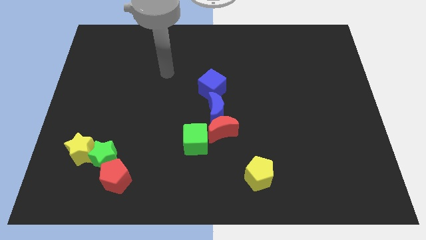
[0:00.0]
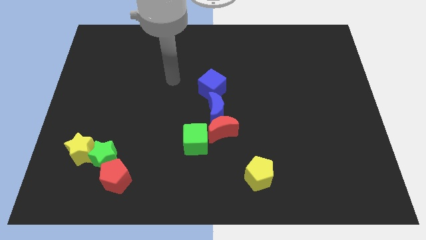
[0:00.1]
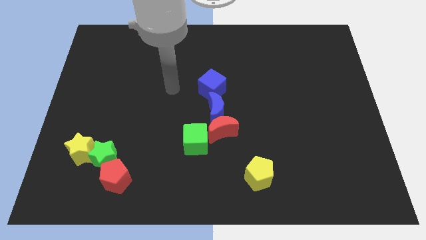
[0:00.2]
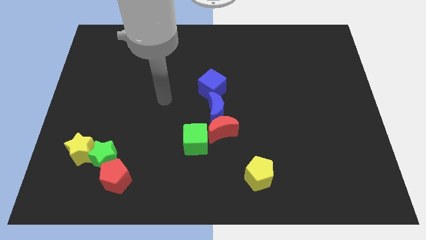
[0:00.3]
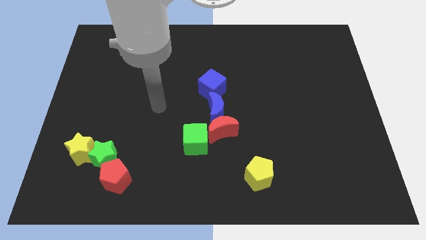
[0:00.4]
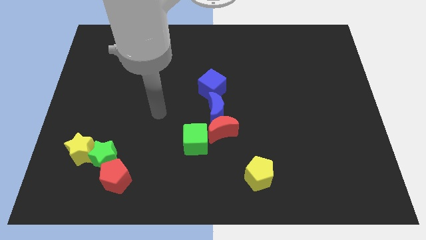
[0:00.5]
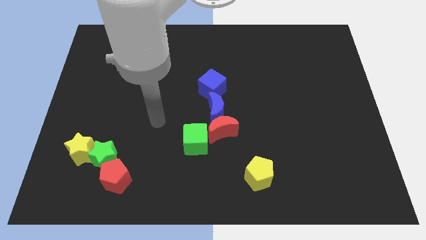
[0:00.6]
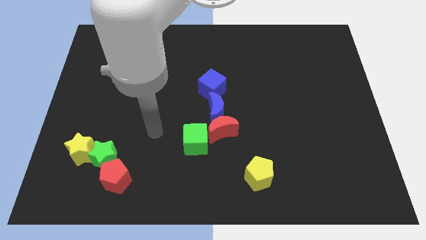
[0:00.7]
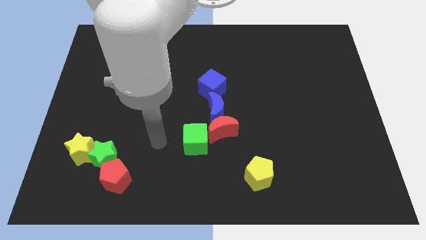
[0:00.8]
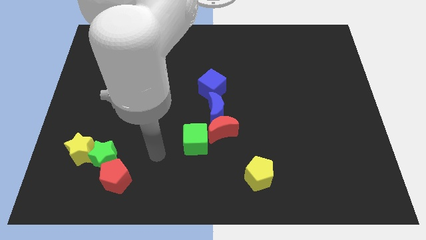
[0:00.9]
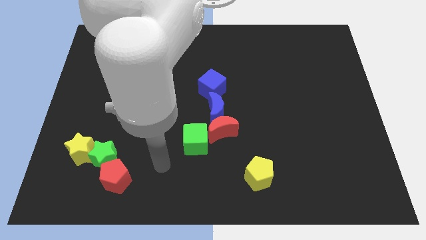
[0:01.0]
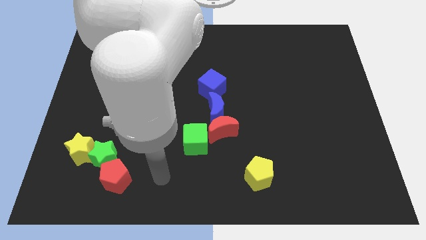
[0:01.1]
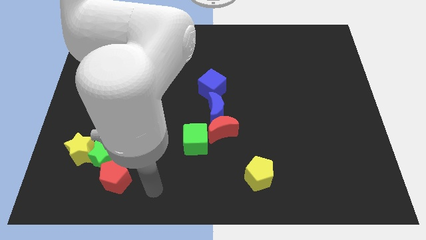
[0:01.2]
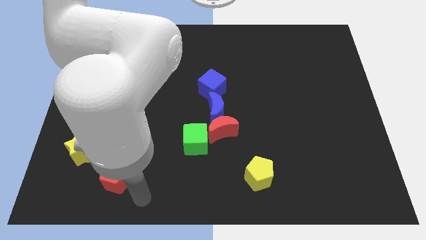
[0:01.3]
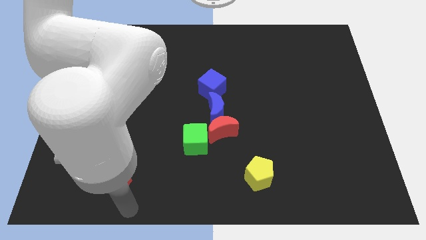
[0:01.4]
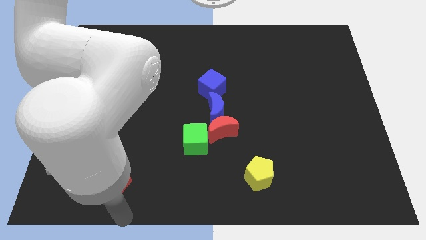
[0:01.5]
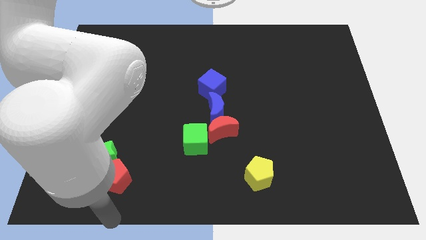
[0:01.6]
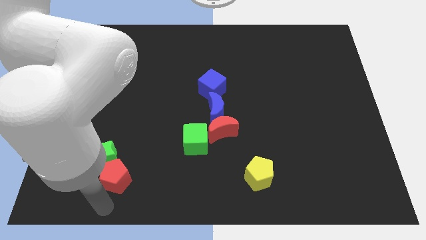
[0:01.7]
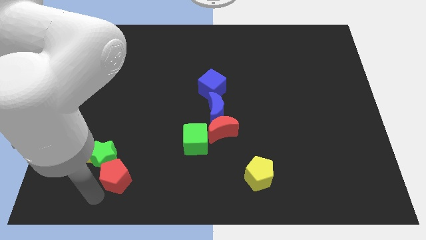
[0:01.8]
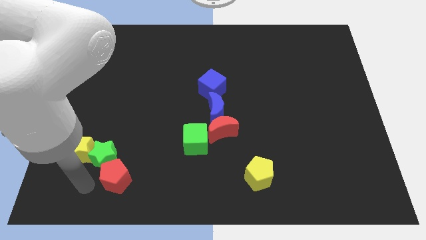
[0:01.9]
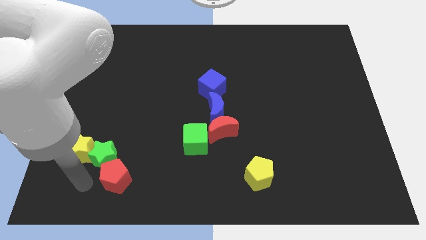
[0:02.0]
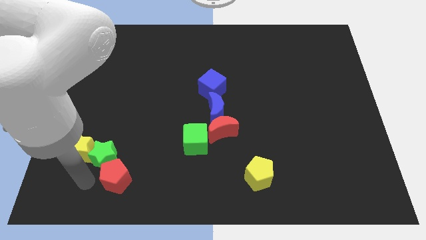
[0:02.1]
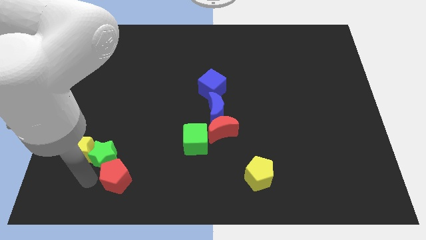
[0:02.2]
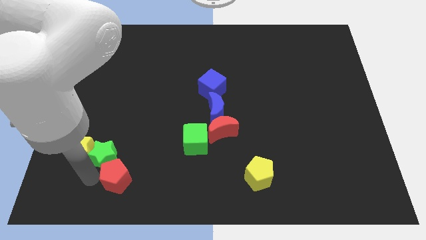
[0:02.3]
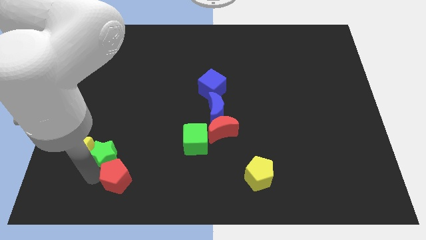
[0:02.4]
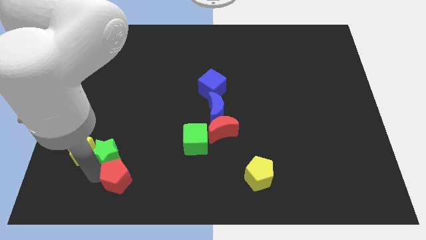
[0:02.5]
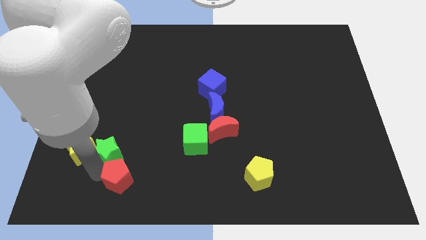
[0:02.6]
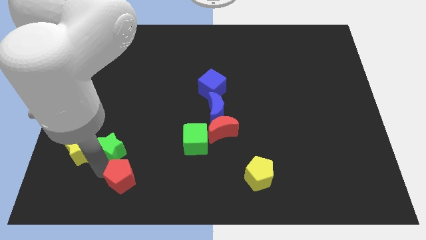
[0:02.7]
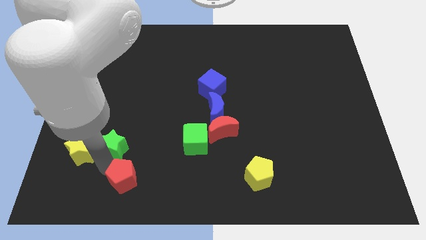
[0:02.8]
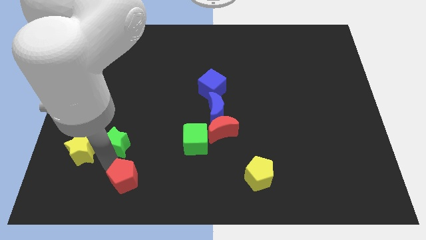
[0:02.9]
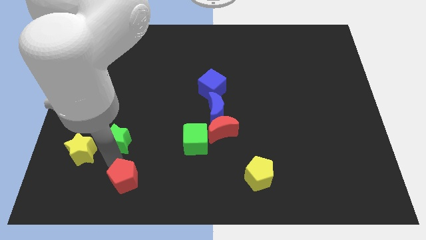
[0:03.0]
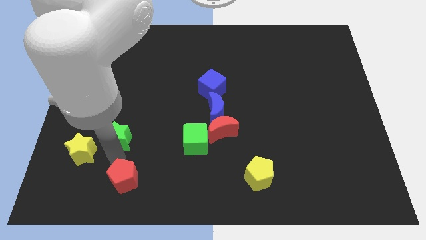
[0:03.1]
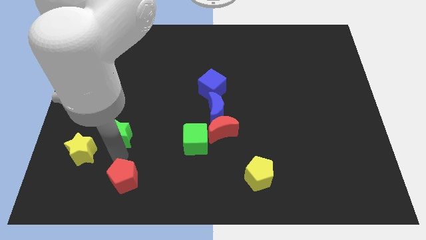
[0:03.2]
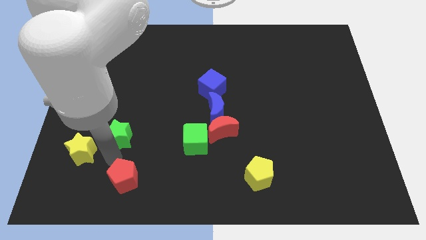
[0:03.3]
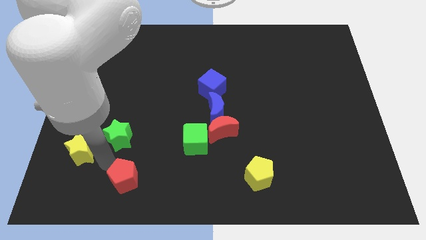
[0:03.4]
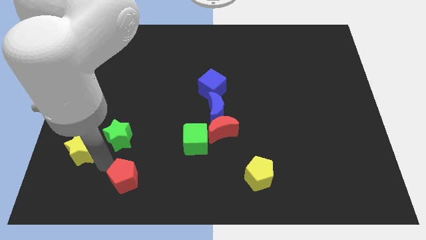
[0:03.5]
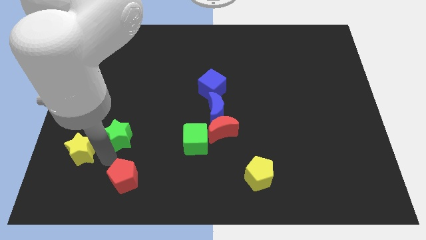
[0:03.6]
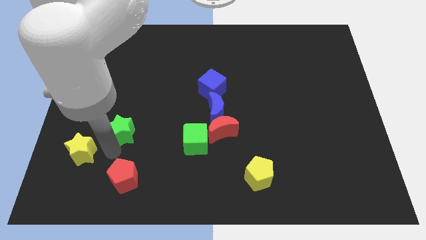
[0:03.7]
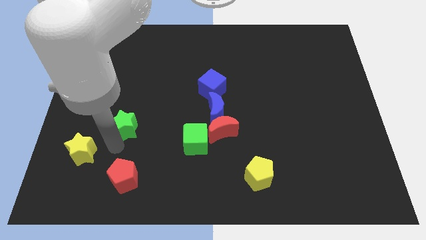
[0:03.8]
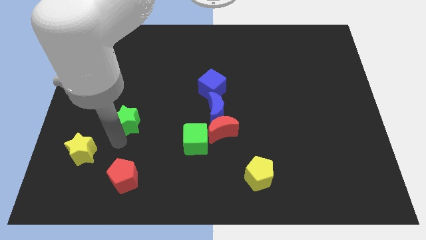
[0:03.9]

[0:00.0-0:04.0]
pull the green star apart from the yellow star and red pentagon

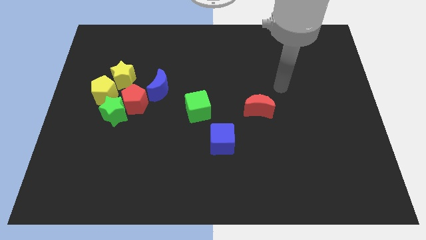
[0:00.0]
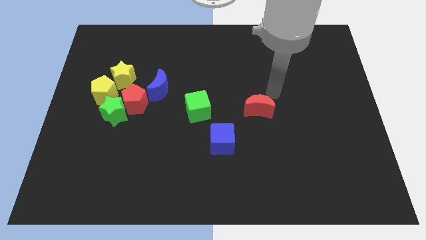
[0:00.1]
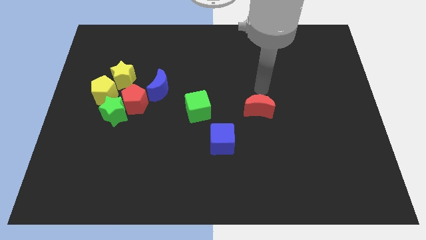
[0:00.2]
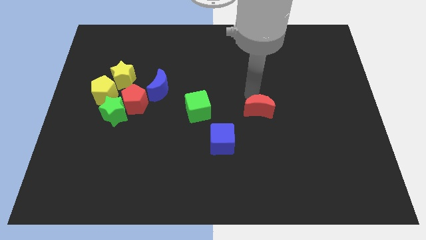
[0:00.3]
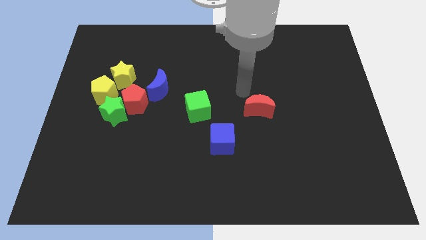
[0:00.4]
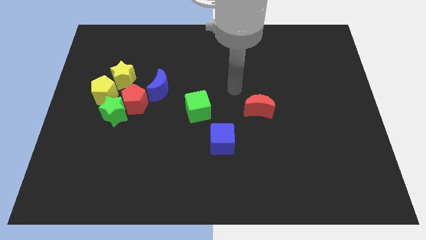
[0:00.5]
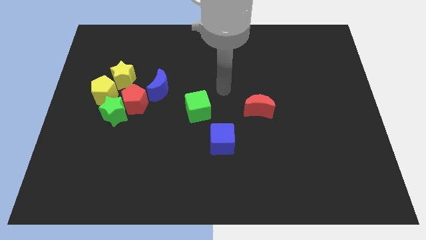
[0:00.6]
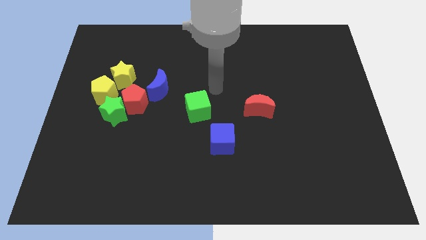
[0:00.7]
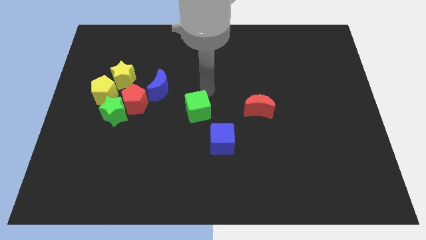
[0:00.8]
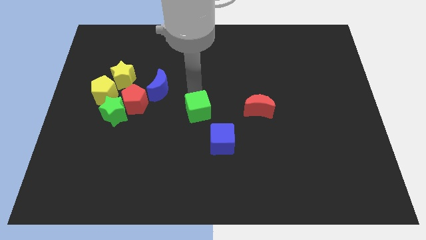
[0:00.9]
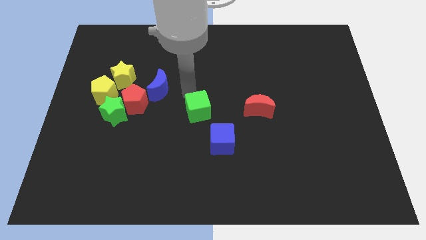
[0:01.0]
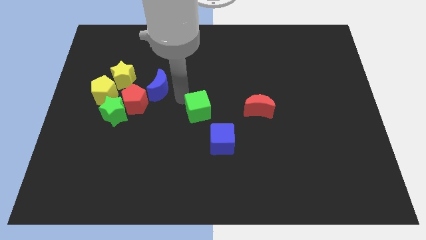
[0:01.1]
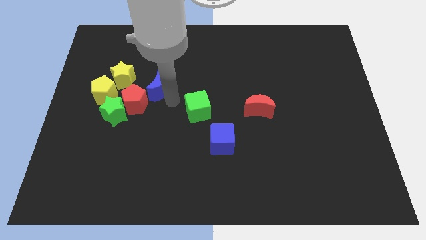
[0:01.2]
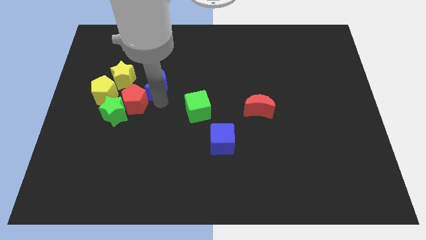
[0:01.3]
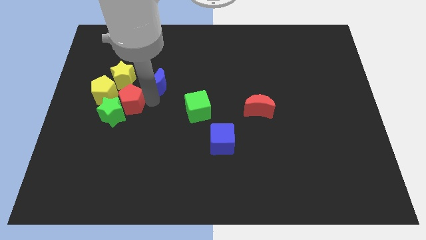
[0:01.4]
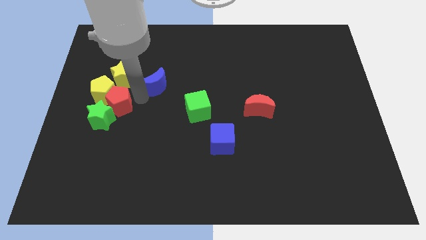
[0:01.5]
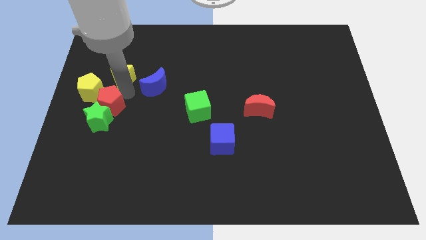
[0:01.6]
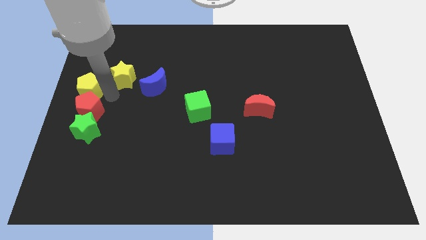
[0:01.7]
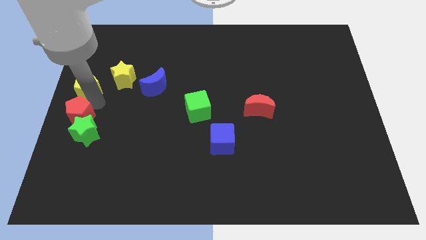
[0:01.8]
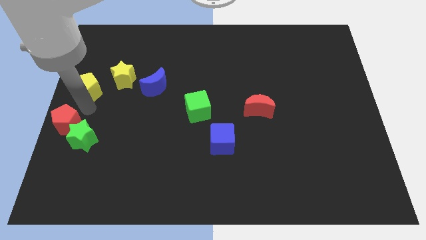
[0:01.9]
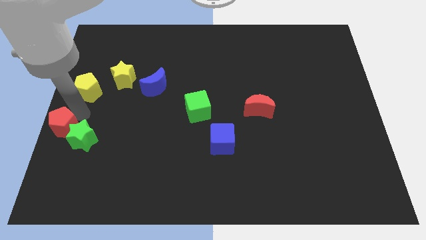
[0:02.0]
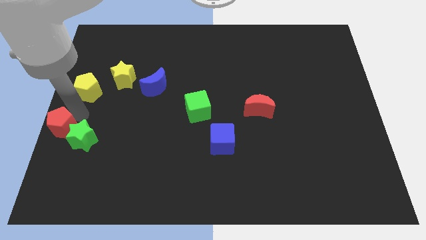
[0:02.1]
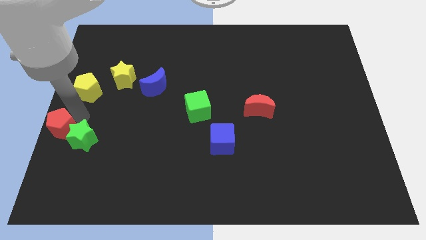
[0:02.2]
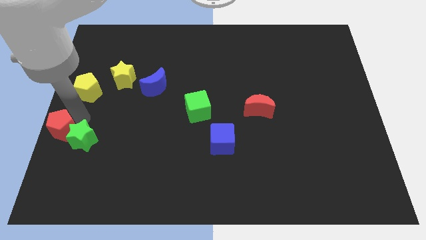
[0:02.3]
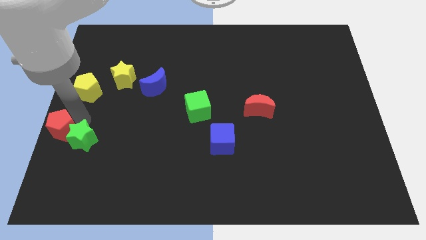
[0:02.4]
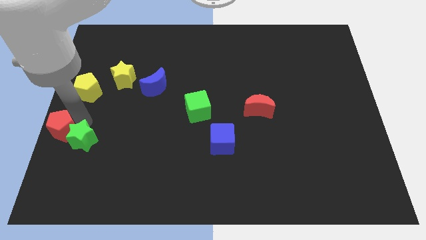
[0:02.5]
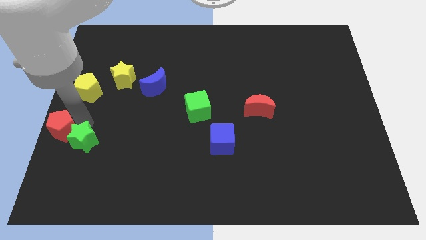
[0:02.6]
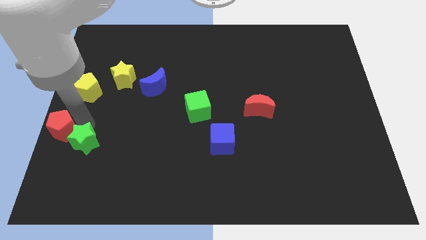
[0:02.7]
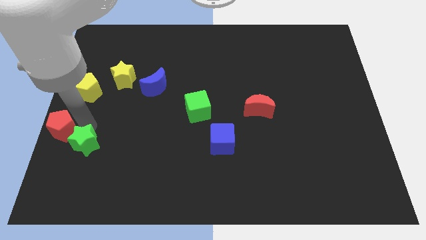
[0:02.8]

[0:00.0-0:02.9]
move the green star away from the red pentagon and yellow pentagon

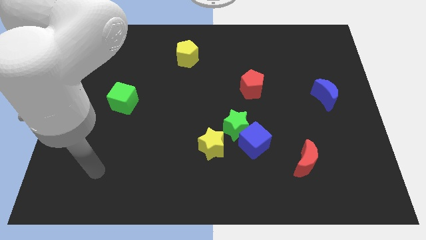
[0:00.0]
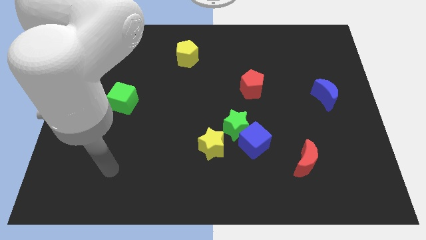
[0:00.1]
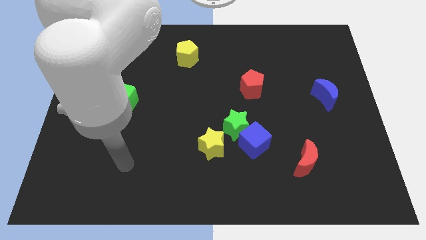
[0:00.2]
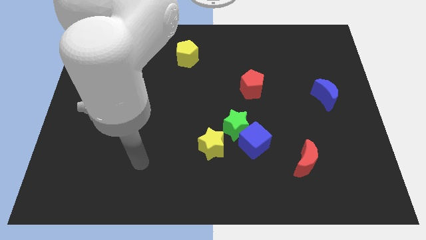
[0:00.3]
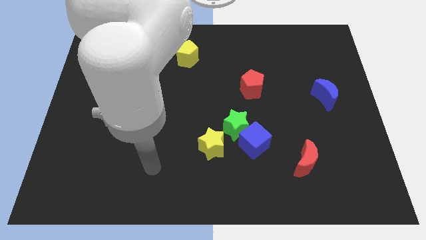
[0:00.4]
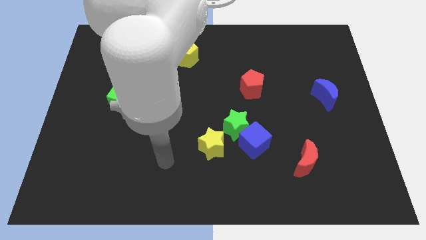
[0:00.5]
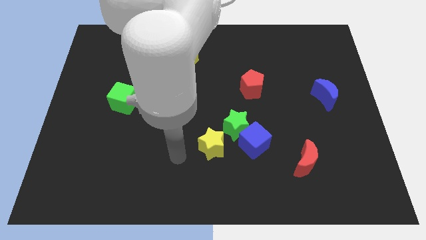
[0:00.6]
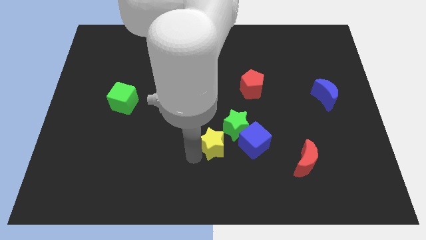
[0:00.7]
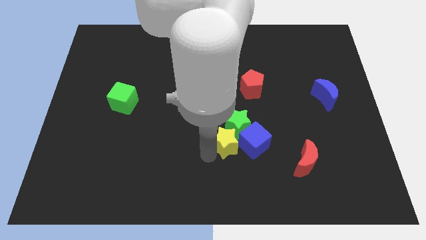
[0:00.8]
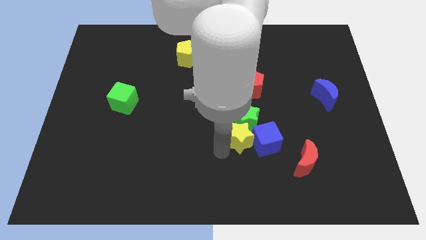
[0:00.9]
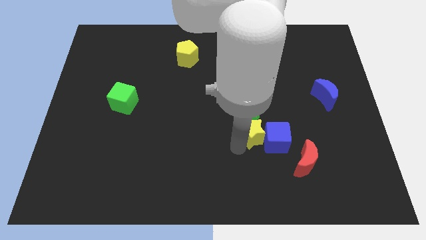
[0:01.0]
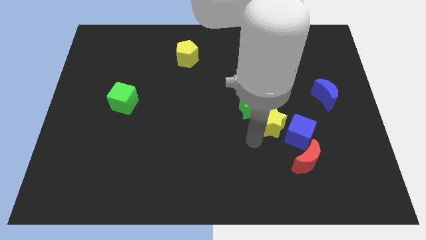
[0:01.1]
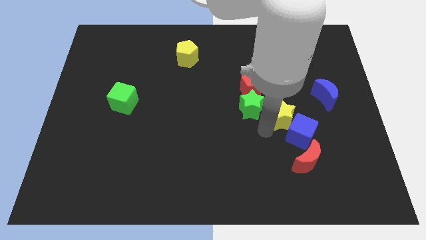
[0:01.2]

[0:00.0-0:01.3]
move the green star away from the blue cube and yellow star

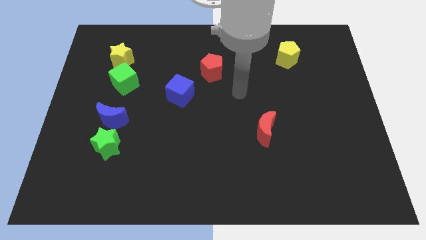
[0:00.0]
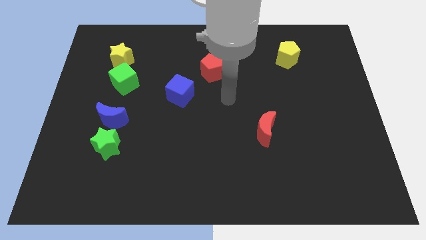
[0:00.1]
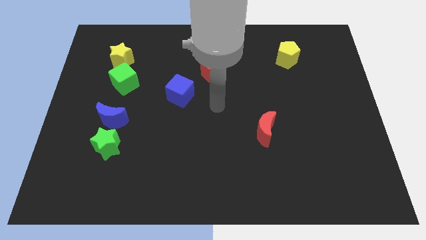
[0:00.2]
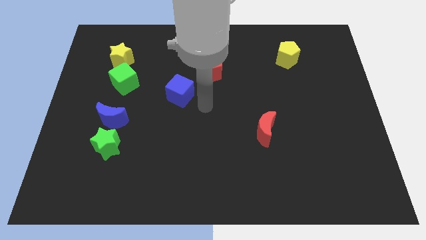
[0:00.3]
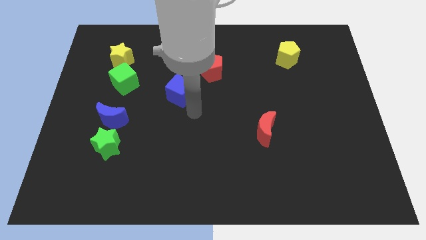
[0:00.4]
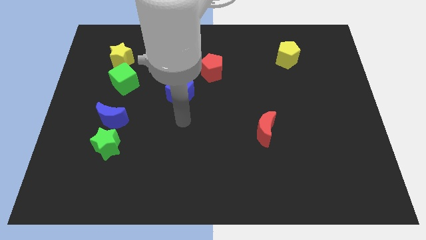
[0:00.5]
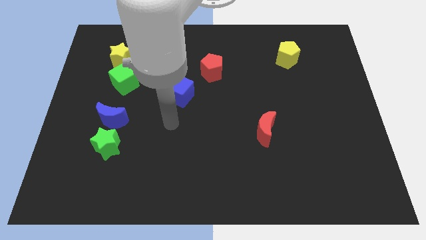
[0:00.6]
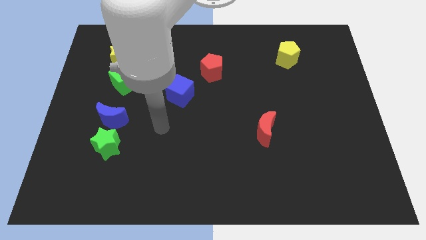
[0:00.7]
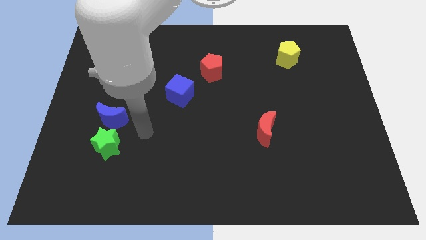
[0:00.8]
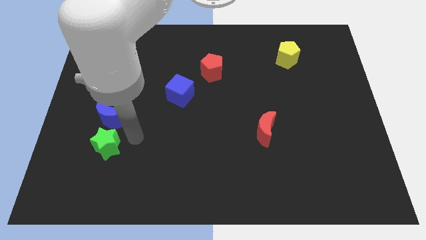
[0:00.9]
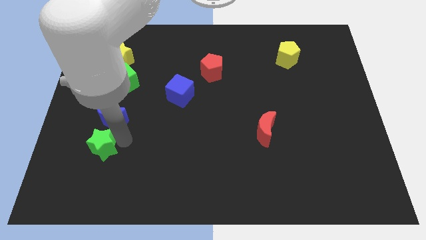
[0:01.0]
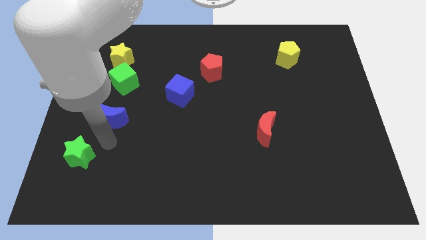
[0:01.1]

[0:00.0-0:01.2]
separate the blue moon from the green star

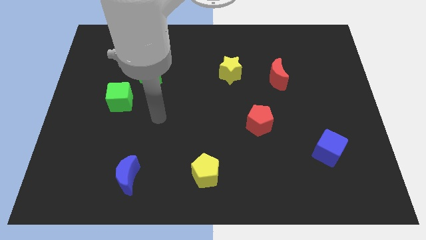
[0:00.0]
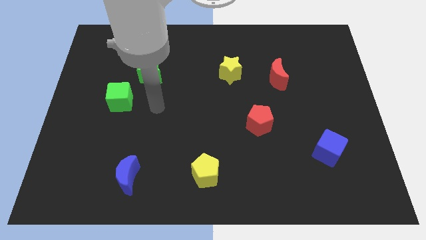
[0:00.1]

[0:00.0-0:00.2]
pull the green cube apart from the green star
